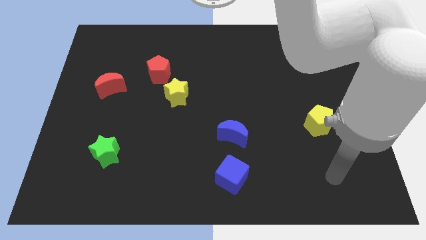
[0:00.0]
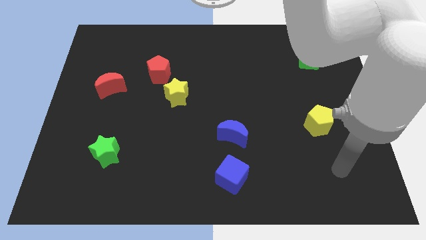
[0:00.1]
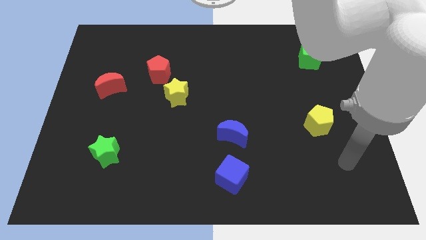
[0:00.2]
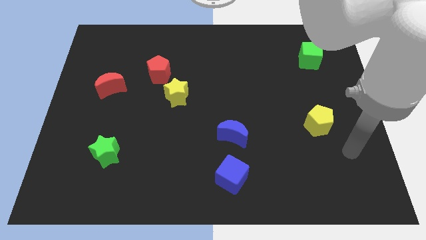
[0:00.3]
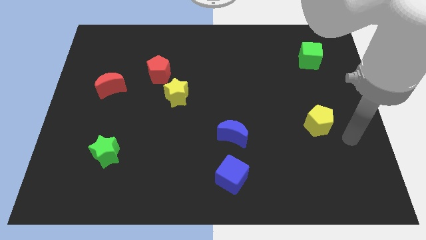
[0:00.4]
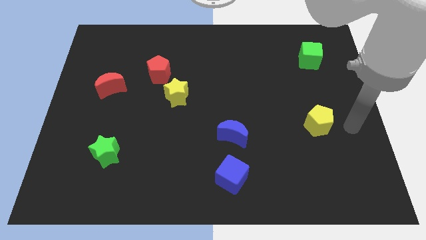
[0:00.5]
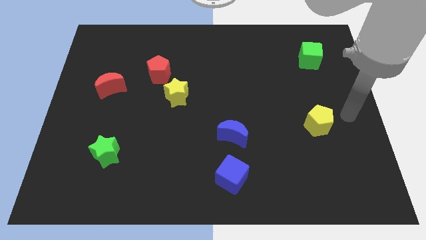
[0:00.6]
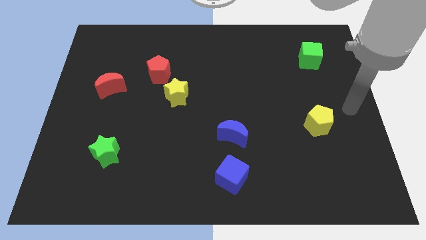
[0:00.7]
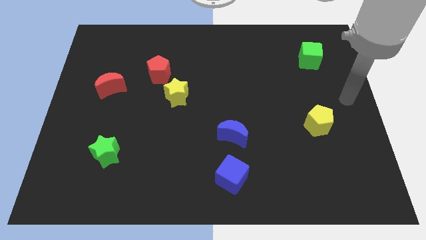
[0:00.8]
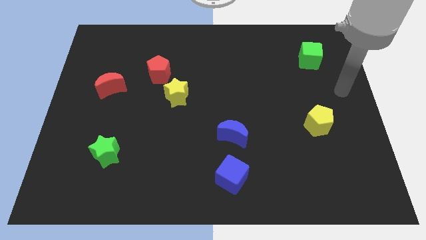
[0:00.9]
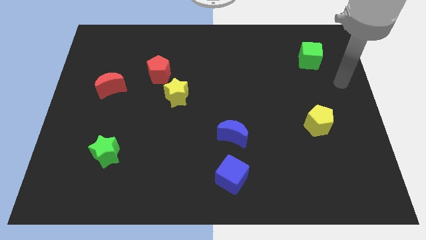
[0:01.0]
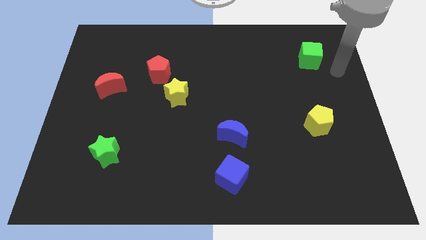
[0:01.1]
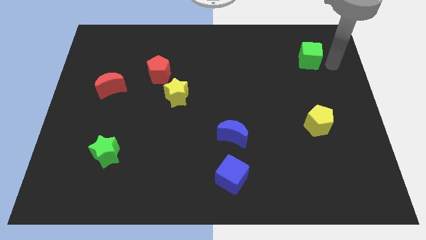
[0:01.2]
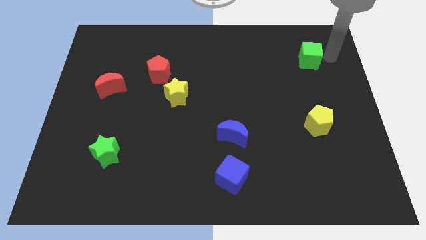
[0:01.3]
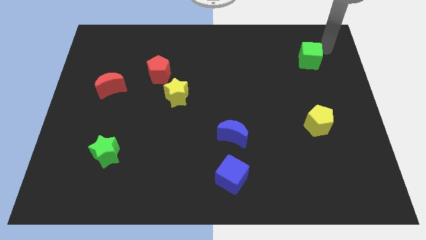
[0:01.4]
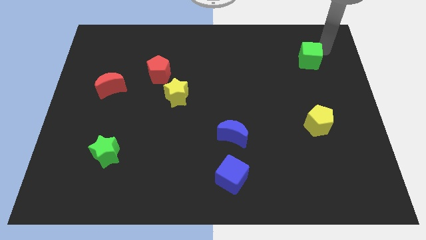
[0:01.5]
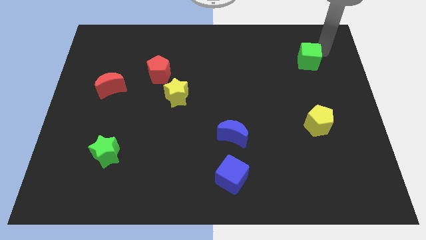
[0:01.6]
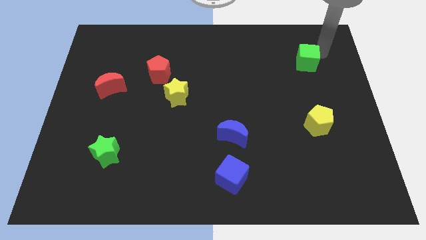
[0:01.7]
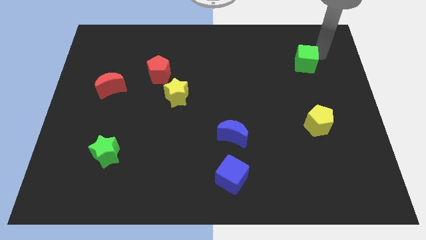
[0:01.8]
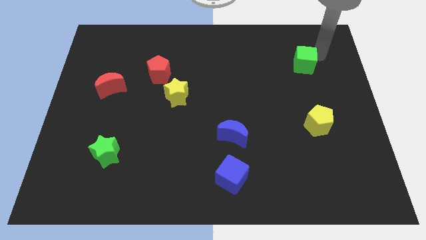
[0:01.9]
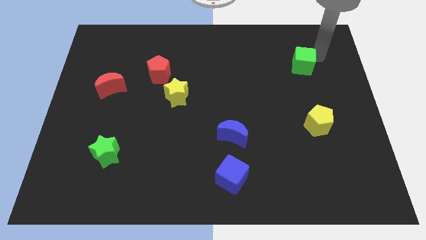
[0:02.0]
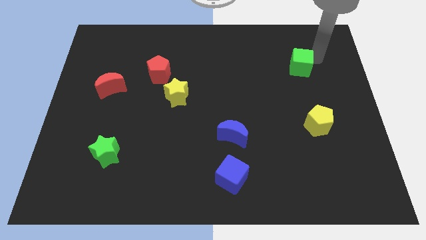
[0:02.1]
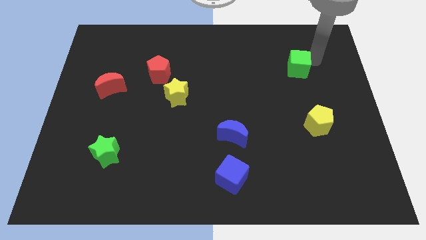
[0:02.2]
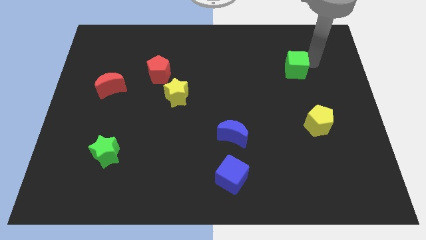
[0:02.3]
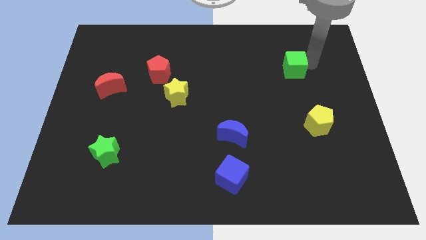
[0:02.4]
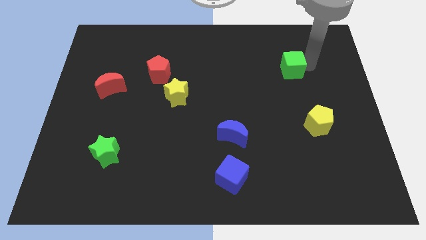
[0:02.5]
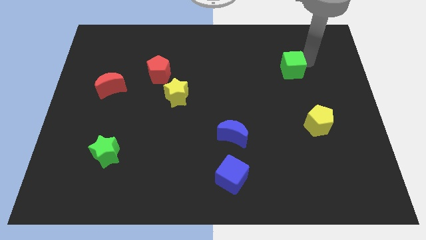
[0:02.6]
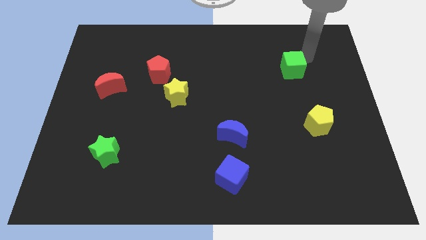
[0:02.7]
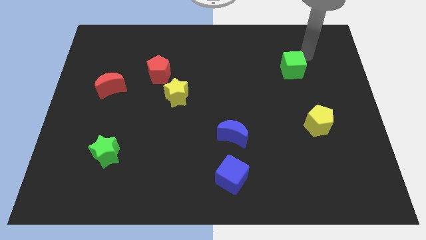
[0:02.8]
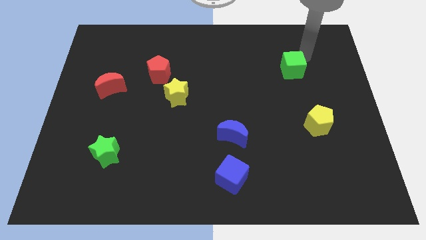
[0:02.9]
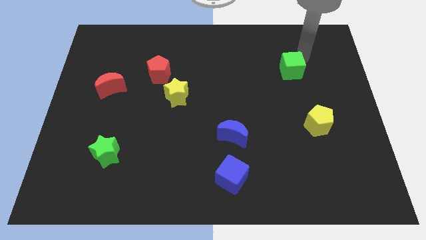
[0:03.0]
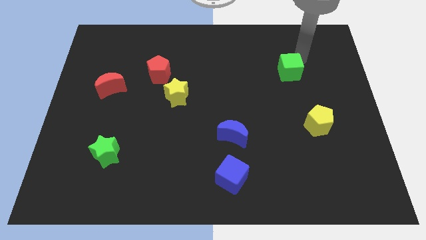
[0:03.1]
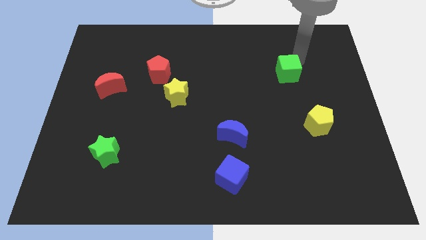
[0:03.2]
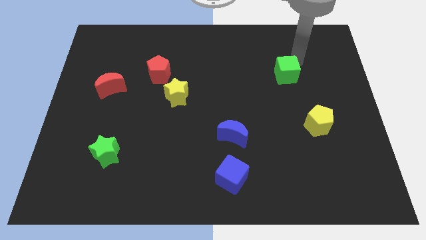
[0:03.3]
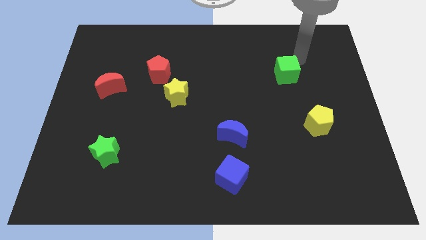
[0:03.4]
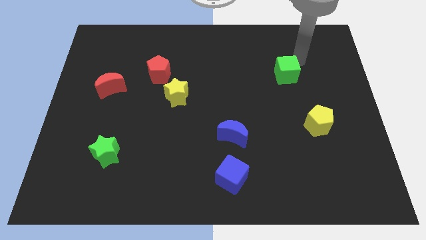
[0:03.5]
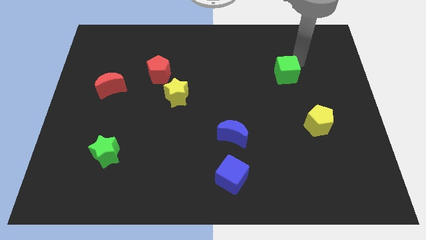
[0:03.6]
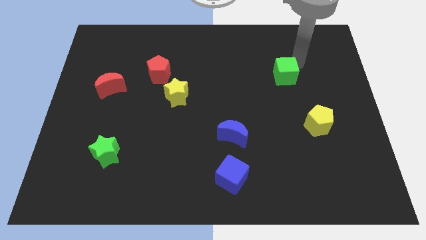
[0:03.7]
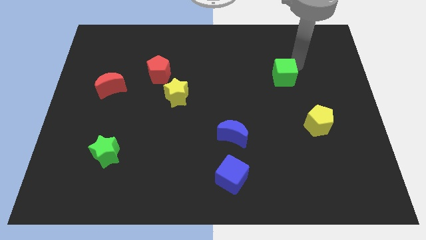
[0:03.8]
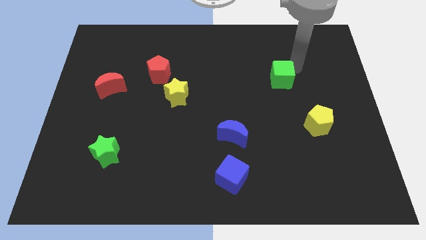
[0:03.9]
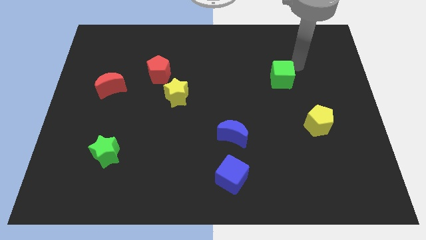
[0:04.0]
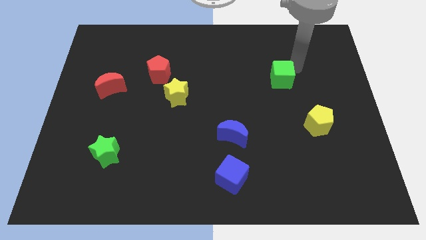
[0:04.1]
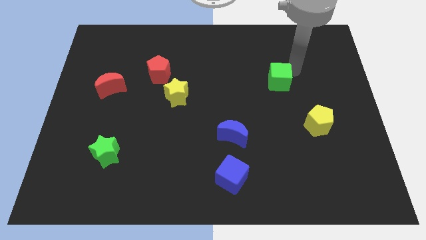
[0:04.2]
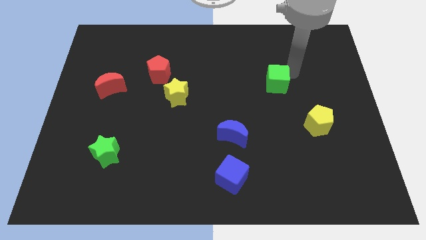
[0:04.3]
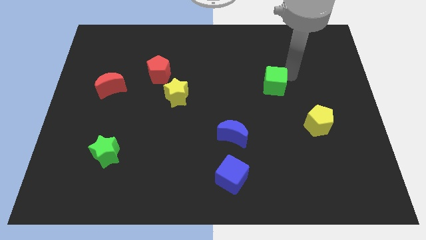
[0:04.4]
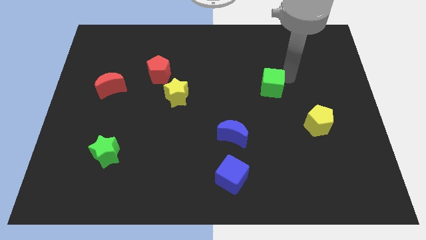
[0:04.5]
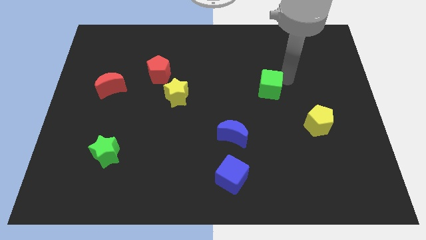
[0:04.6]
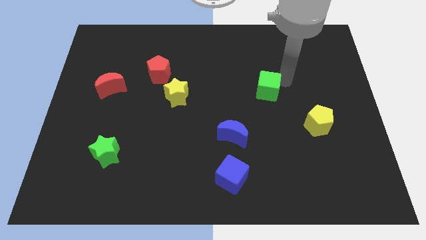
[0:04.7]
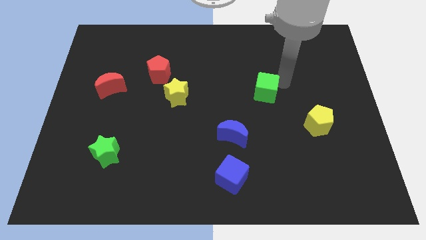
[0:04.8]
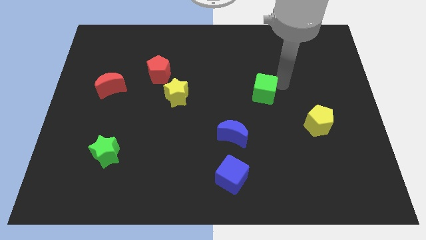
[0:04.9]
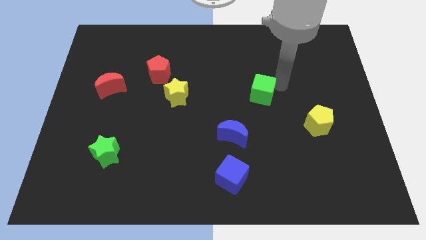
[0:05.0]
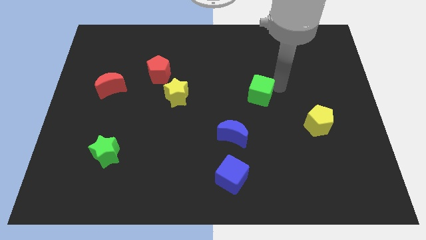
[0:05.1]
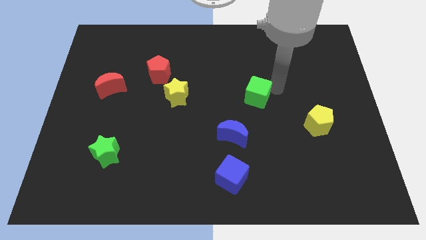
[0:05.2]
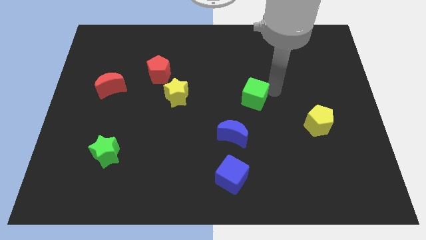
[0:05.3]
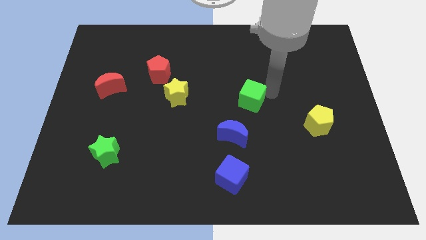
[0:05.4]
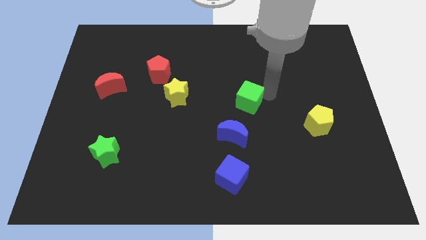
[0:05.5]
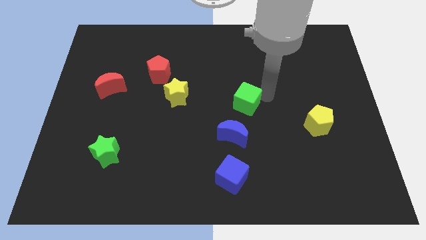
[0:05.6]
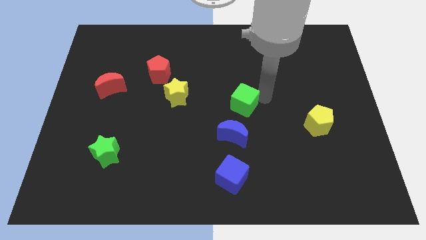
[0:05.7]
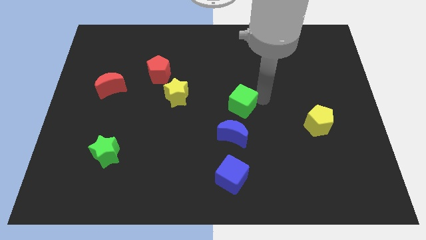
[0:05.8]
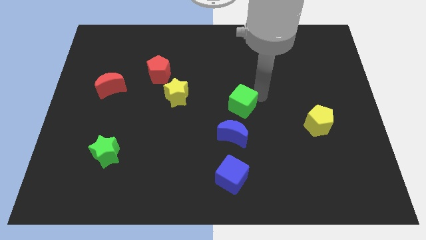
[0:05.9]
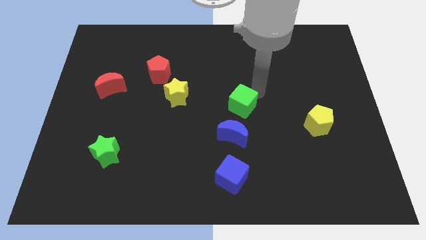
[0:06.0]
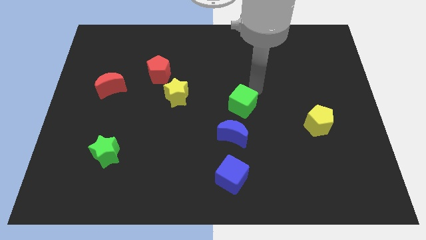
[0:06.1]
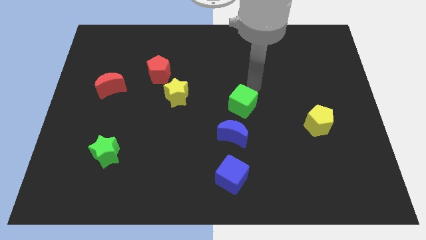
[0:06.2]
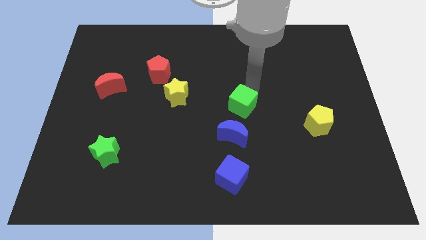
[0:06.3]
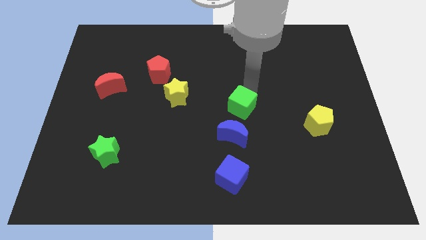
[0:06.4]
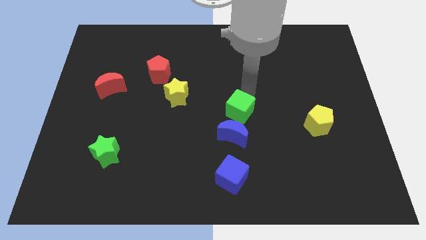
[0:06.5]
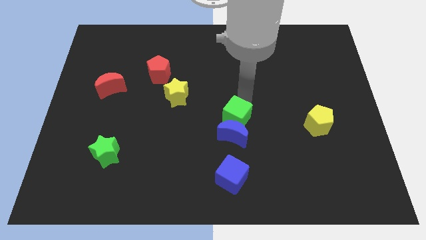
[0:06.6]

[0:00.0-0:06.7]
put the green cube to the top of the blue cube
